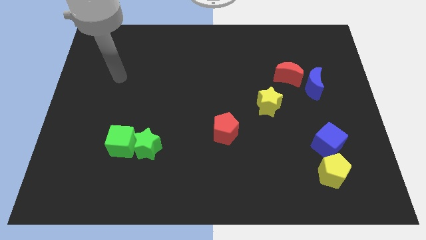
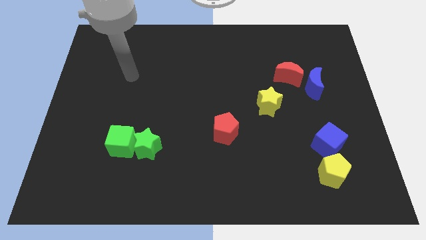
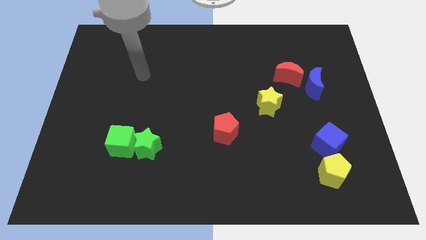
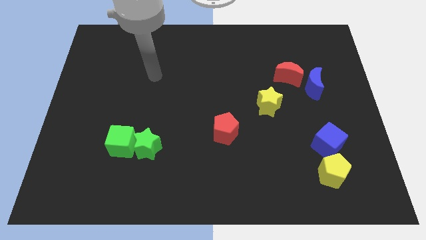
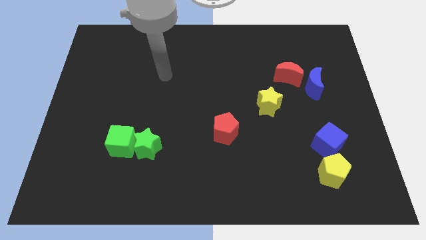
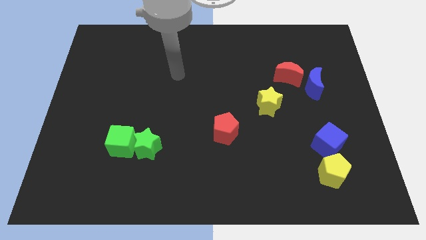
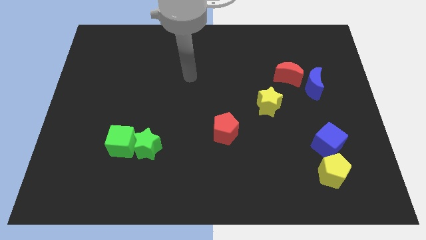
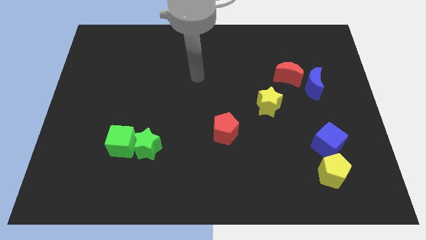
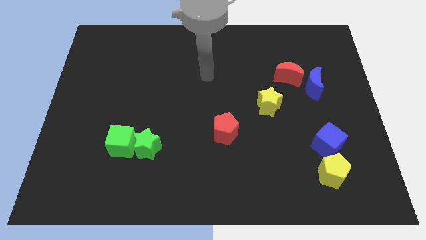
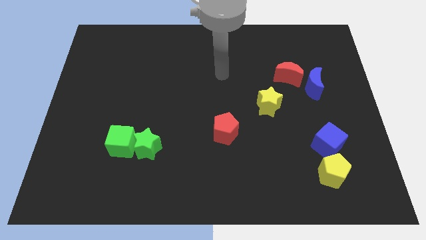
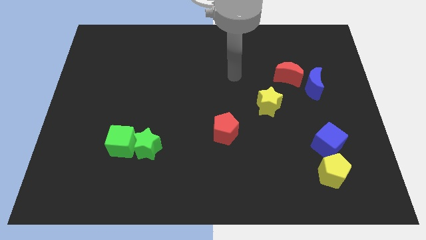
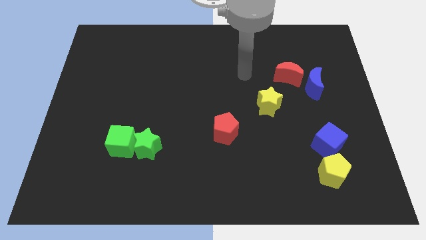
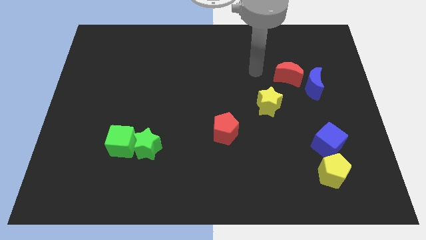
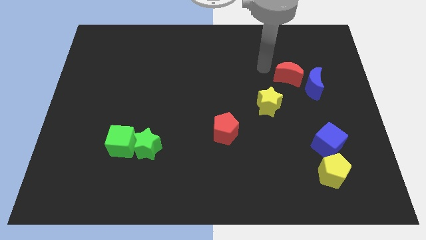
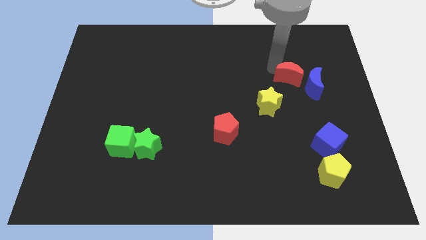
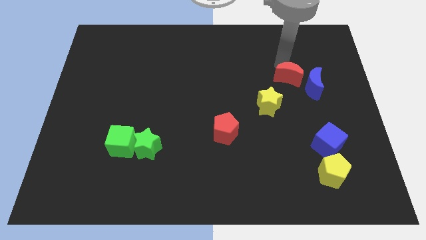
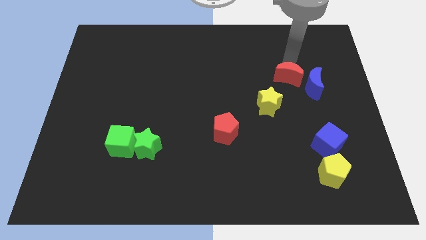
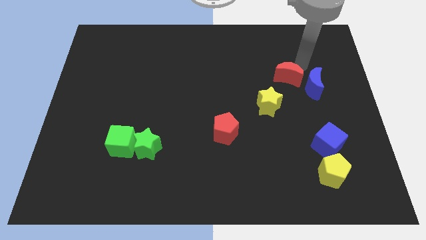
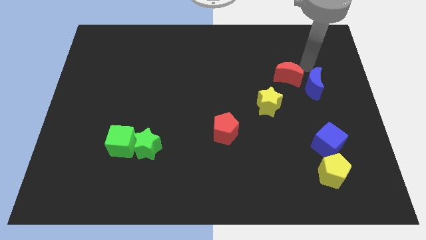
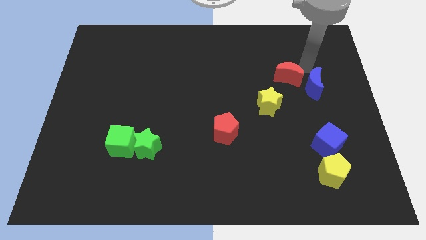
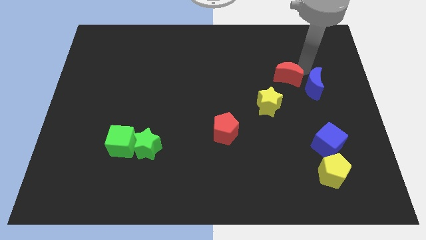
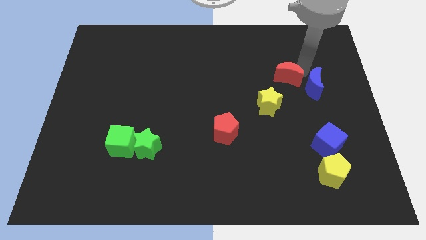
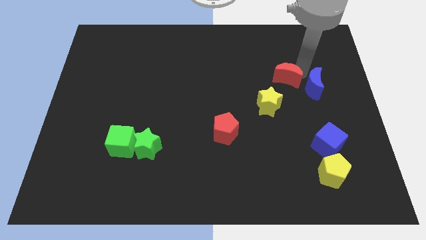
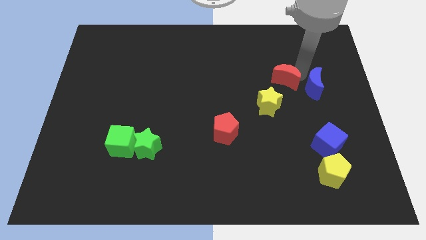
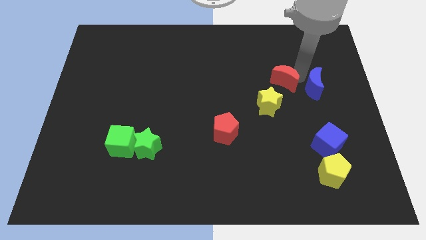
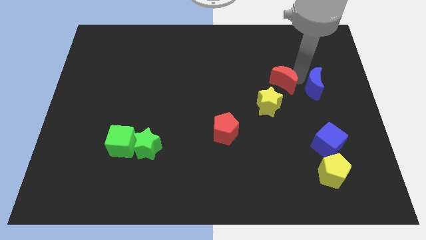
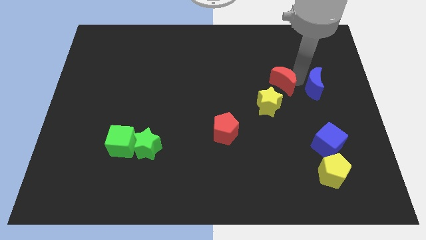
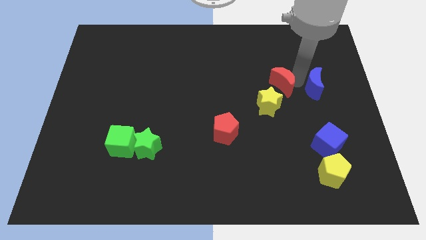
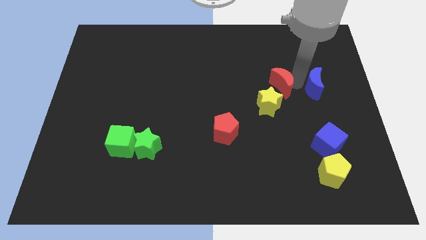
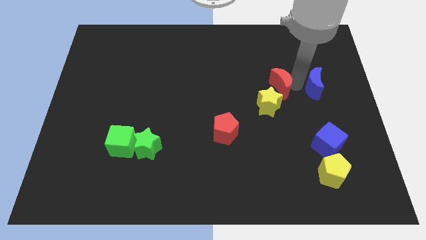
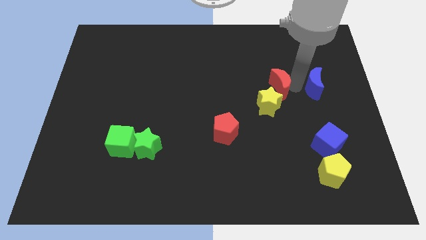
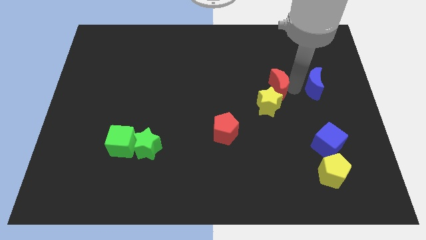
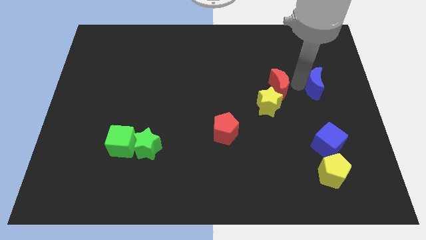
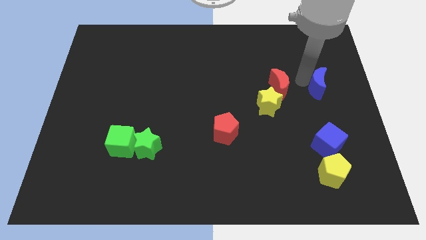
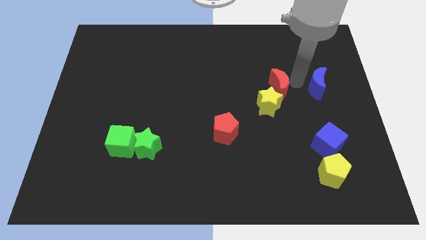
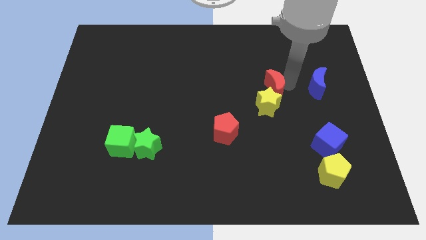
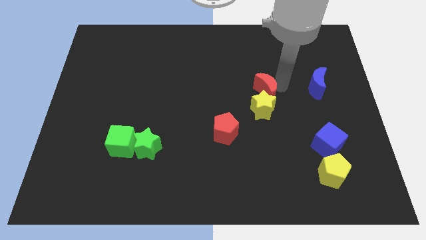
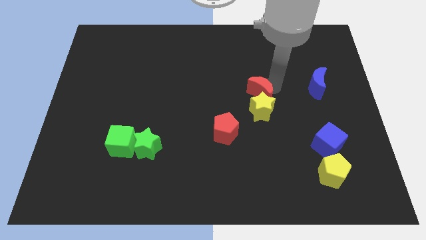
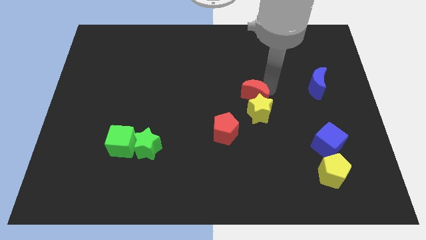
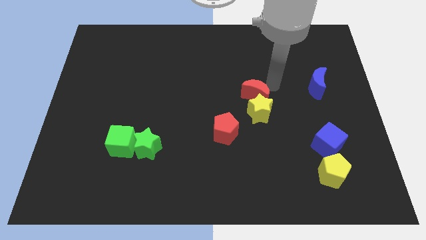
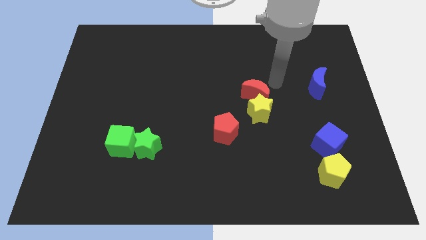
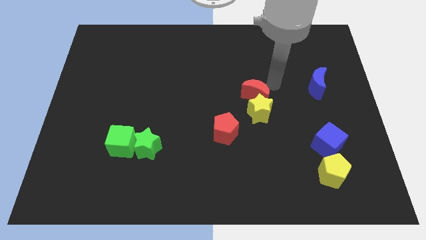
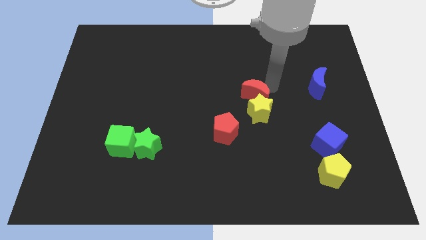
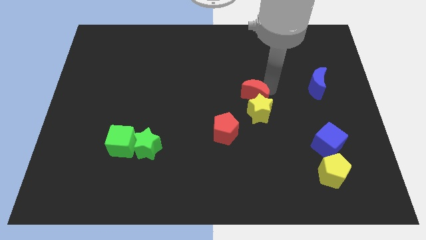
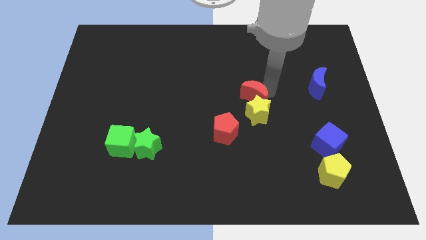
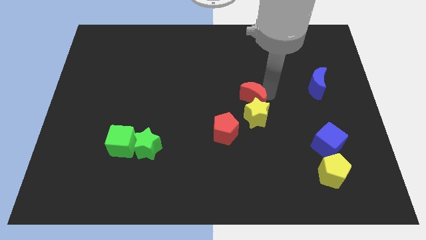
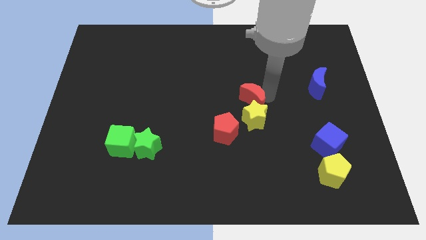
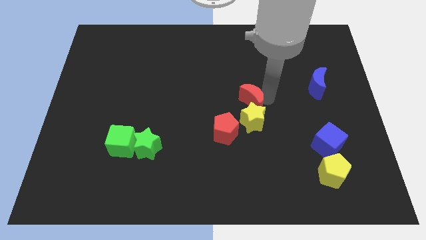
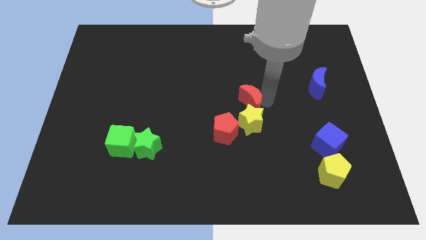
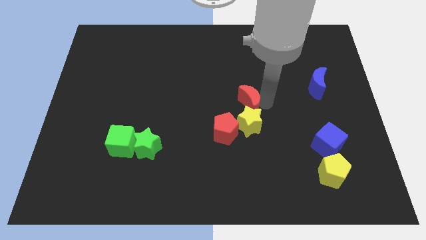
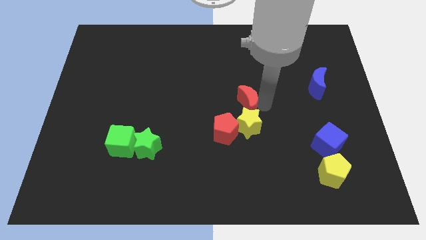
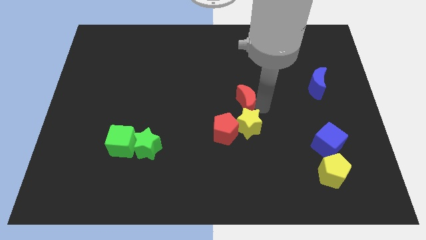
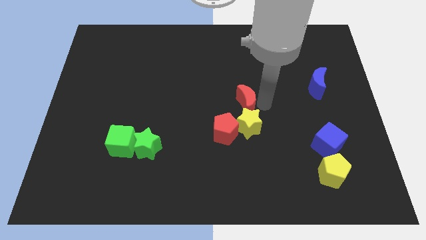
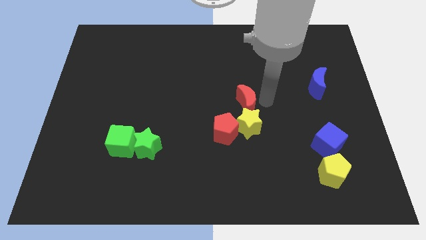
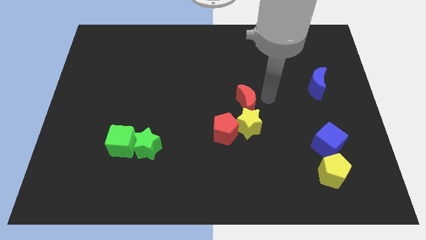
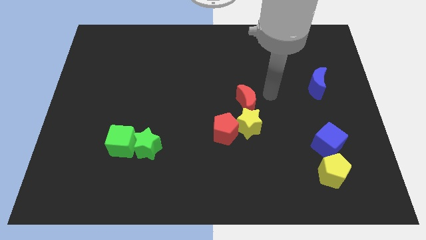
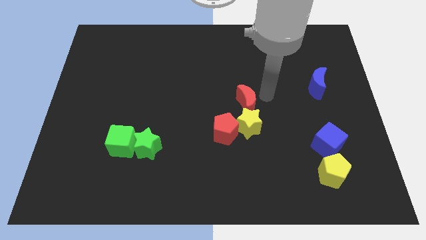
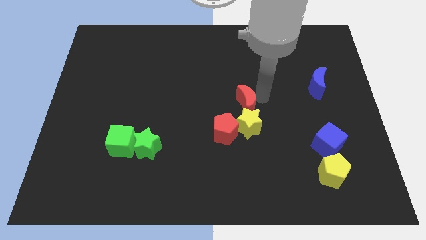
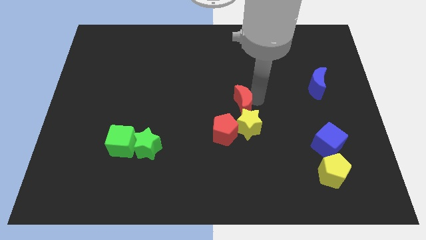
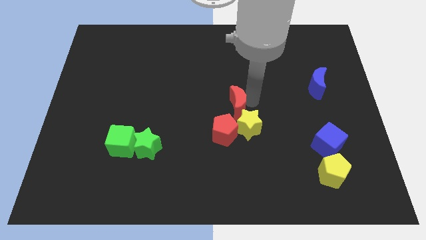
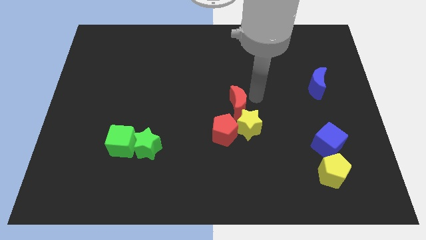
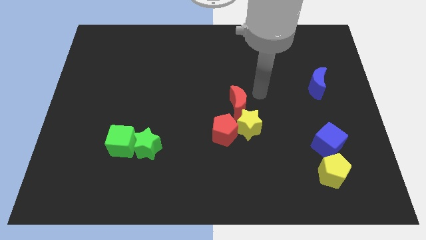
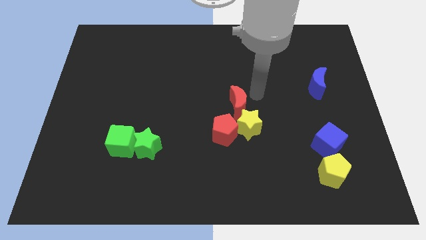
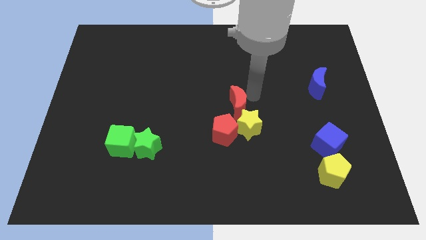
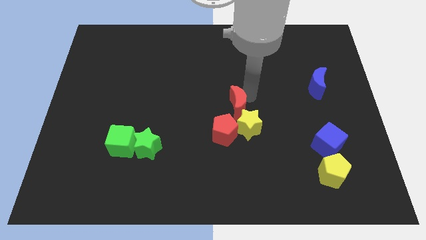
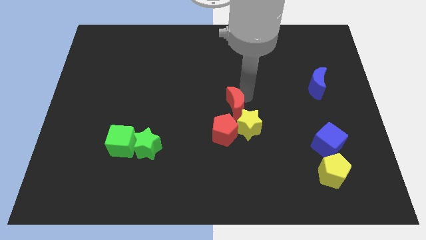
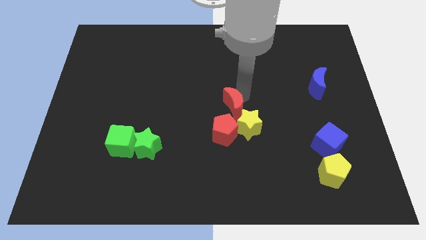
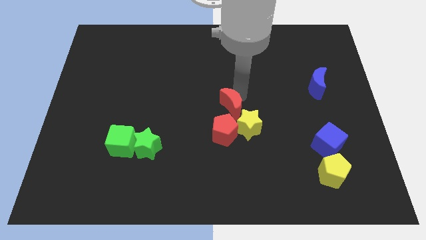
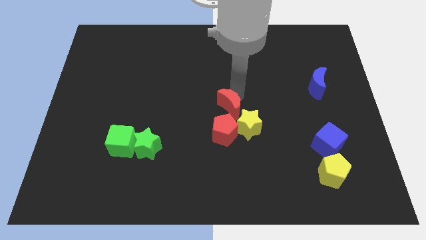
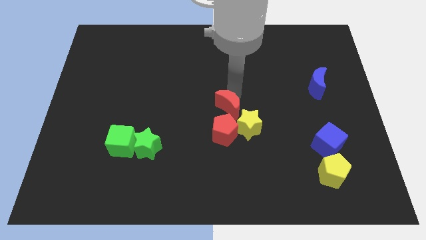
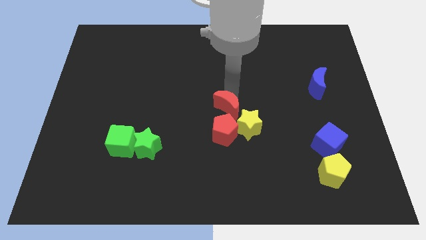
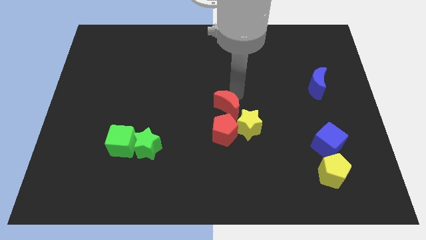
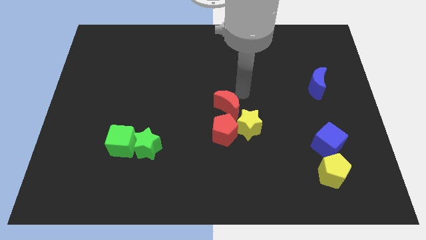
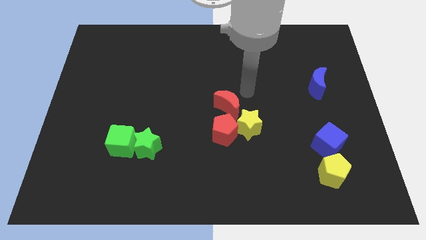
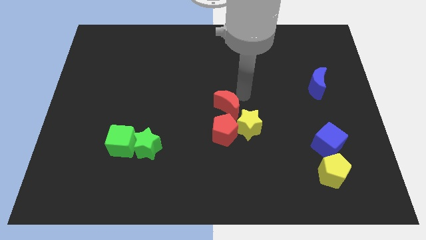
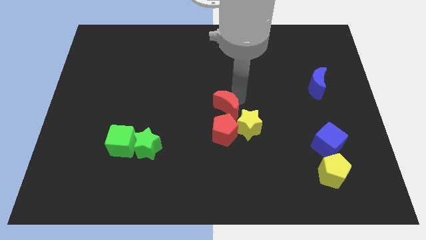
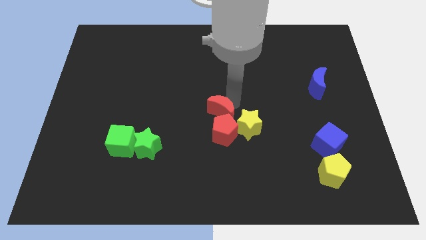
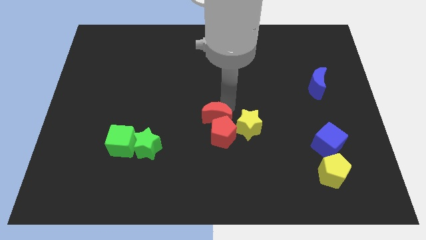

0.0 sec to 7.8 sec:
push the red moon diagonally downwards and left

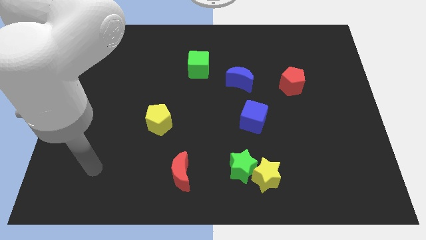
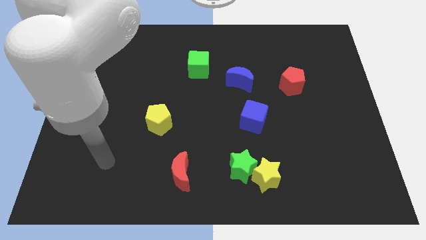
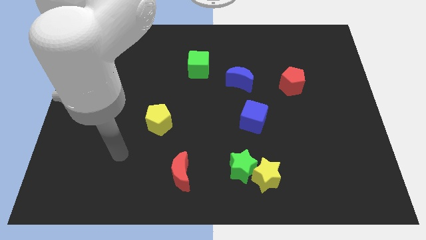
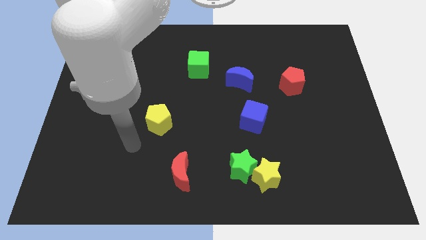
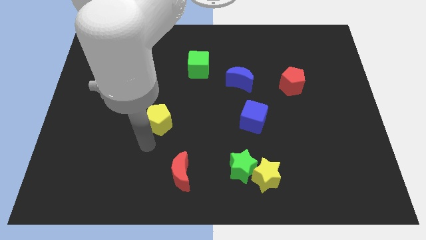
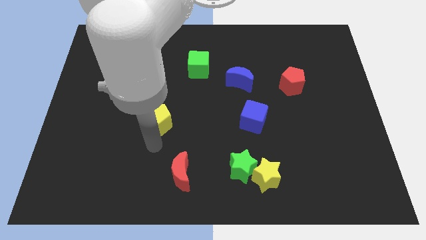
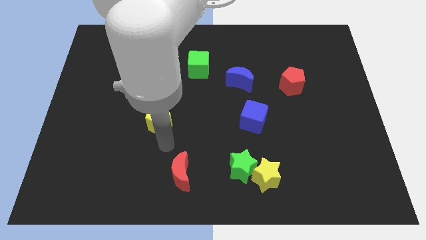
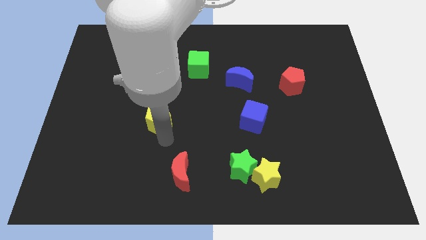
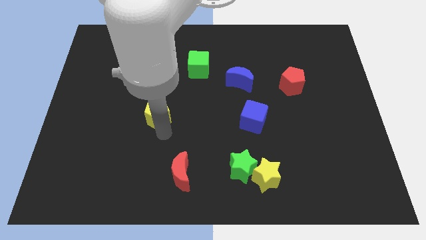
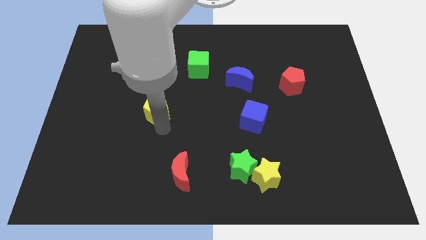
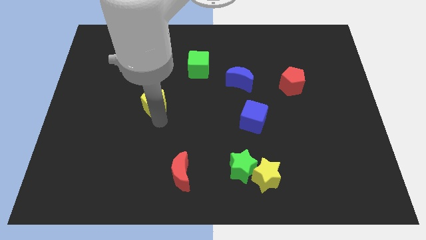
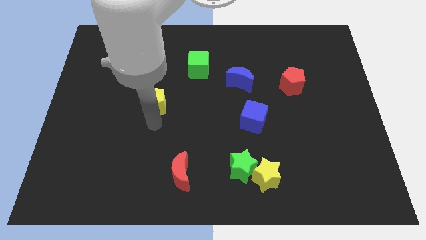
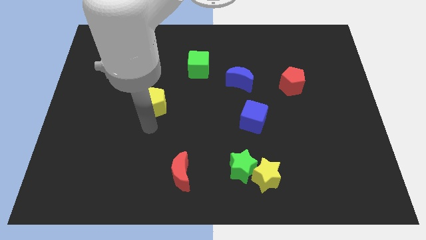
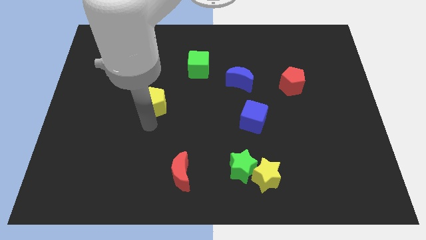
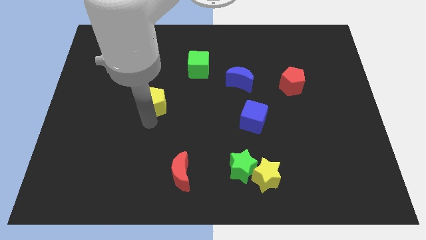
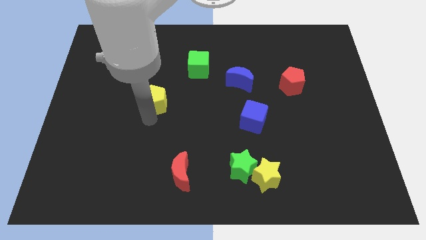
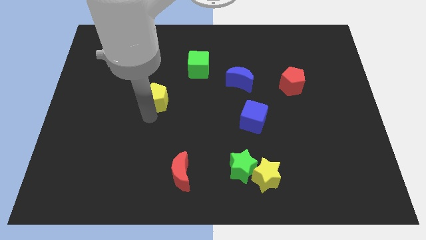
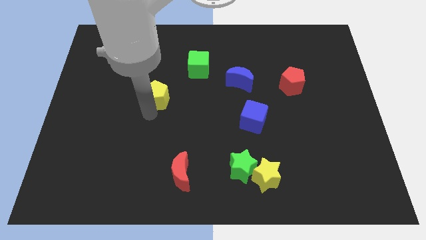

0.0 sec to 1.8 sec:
slightly move the yellow pentagon upwards
